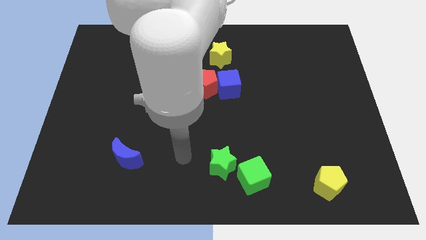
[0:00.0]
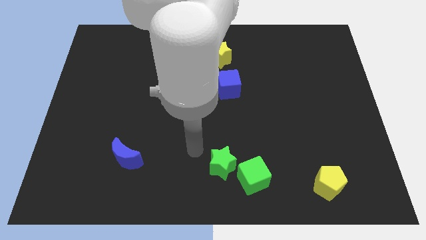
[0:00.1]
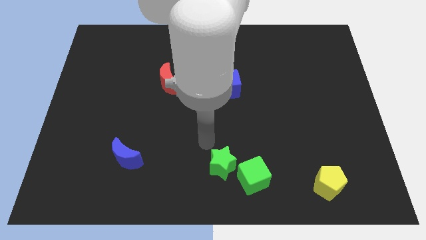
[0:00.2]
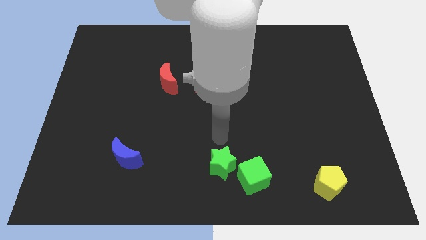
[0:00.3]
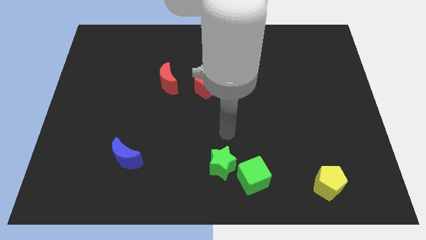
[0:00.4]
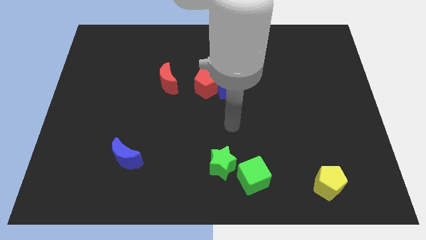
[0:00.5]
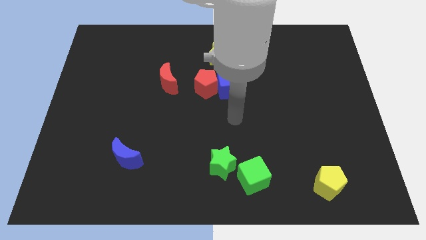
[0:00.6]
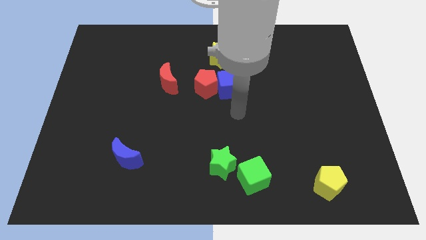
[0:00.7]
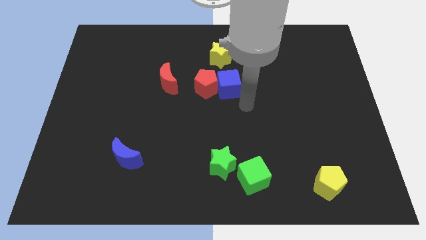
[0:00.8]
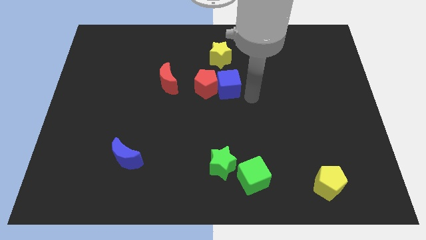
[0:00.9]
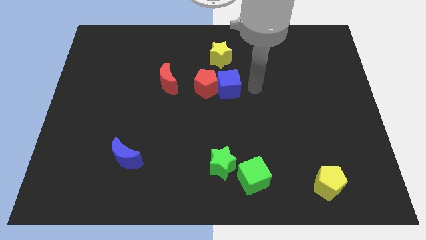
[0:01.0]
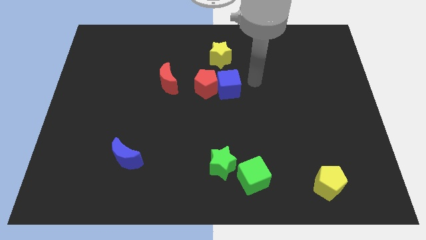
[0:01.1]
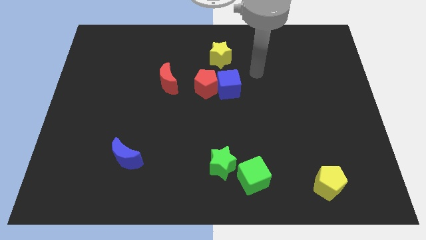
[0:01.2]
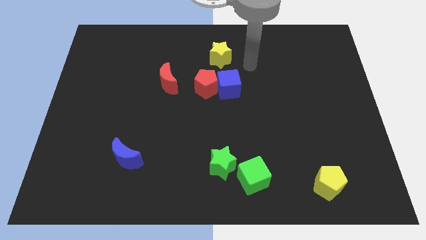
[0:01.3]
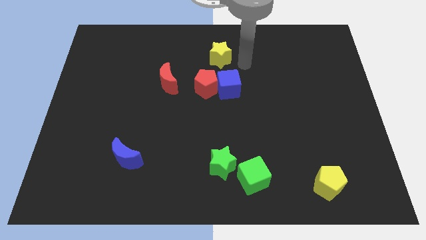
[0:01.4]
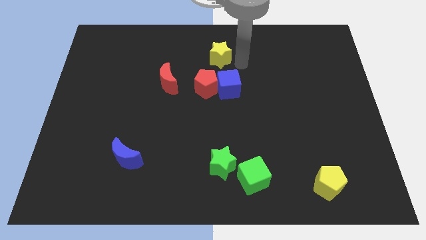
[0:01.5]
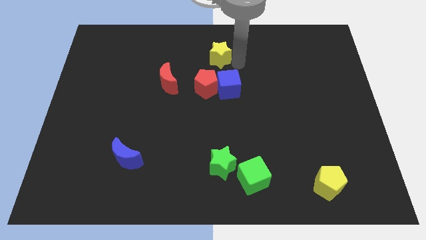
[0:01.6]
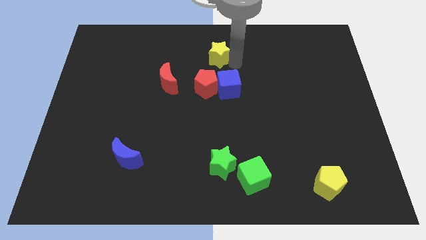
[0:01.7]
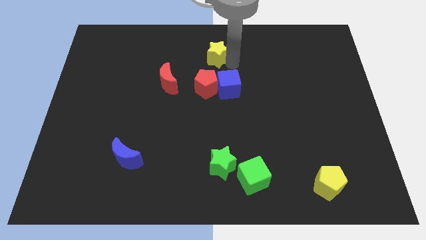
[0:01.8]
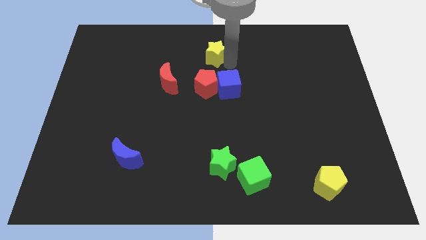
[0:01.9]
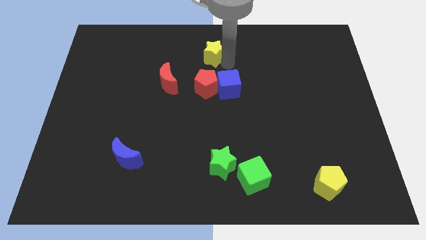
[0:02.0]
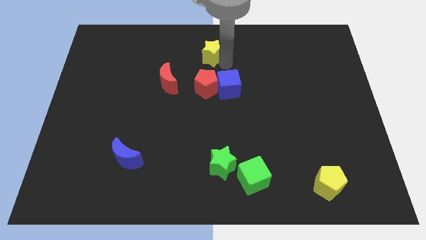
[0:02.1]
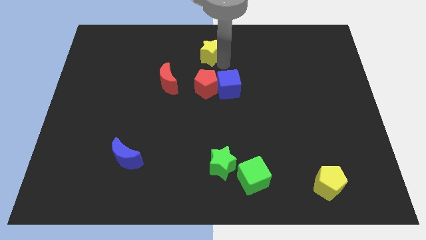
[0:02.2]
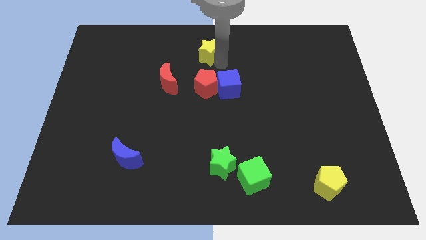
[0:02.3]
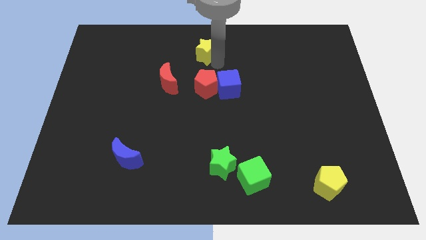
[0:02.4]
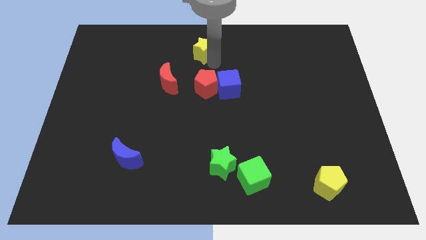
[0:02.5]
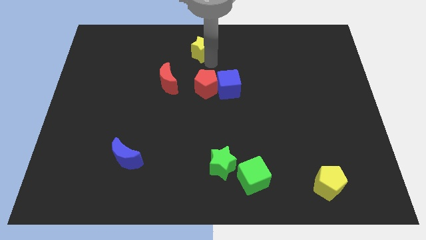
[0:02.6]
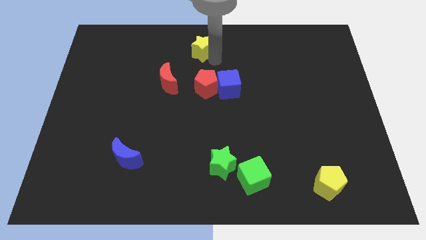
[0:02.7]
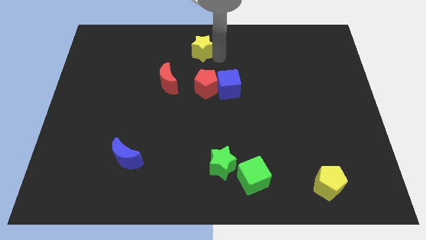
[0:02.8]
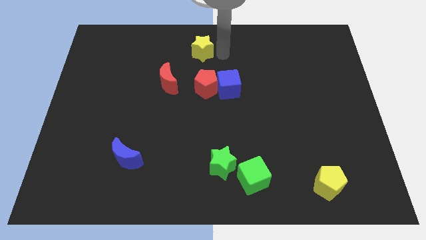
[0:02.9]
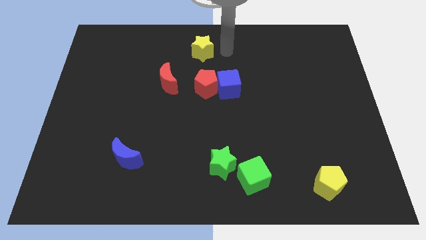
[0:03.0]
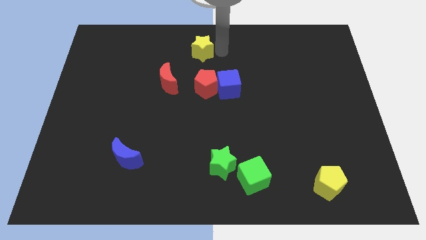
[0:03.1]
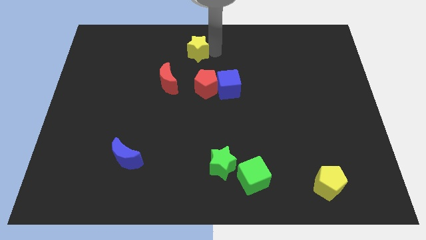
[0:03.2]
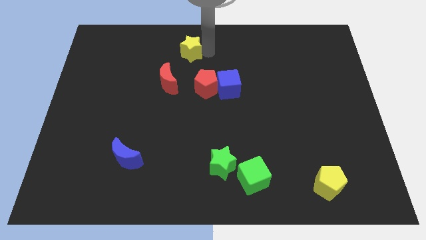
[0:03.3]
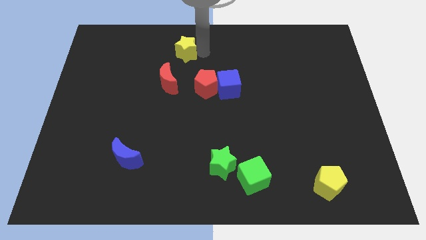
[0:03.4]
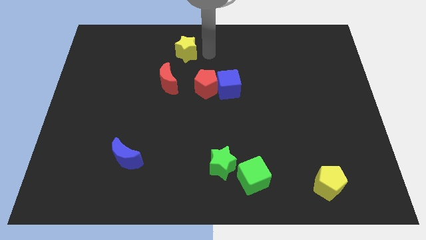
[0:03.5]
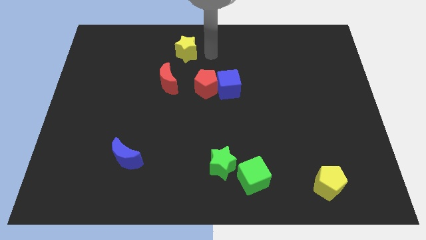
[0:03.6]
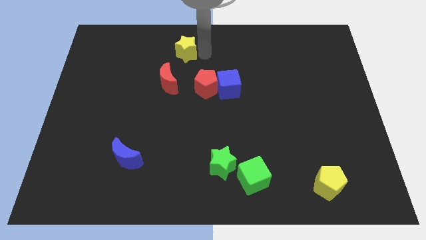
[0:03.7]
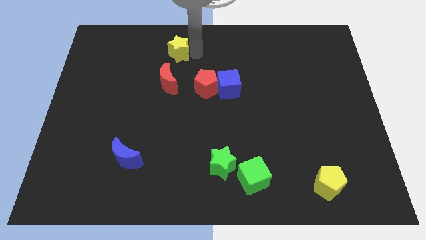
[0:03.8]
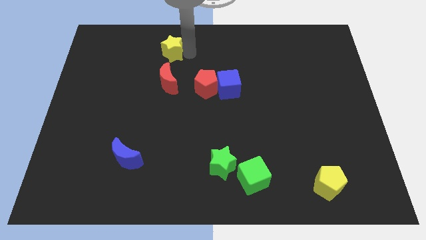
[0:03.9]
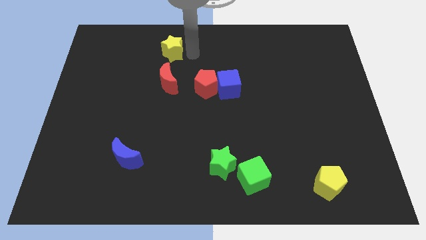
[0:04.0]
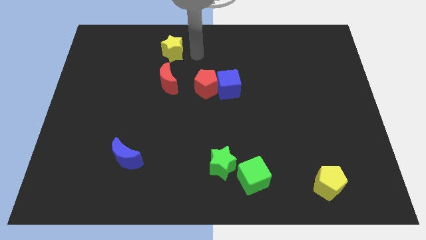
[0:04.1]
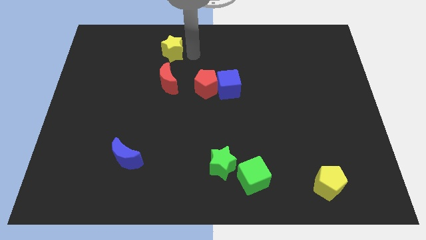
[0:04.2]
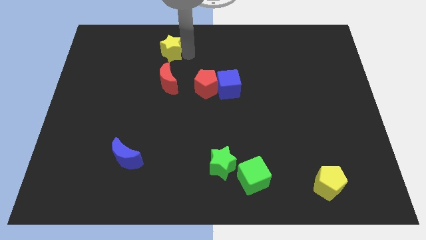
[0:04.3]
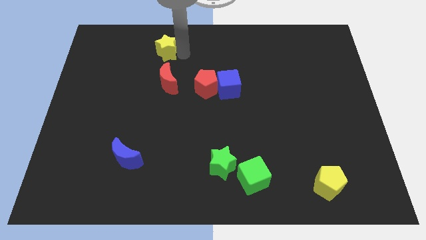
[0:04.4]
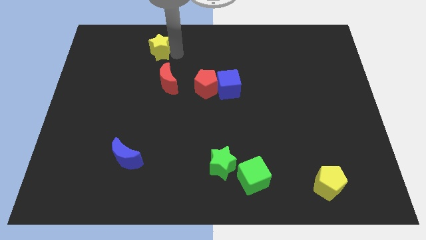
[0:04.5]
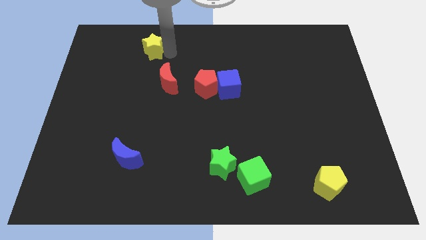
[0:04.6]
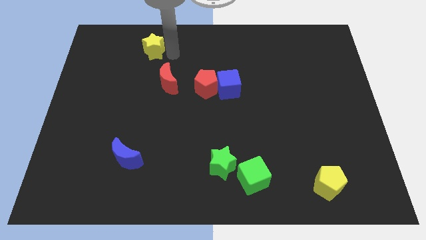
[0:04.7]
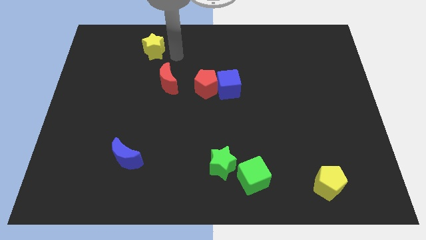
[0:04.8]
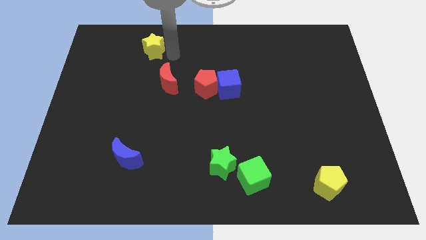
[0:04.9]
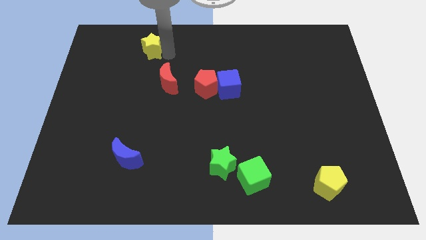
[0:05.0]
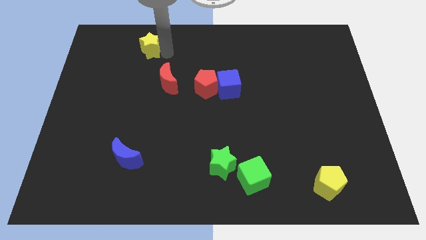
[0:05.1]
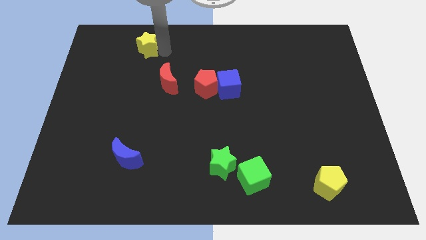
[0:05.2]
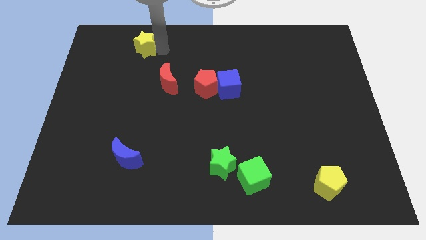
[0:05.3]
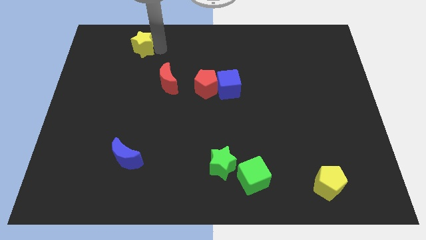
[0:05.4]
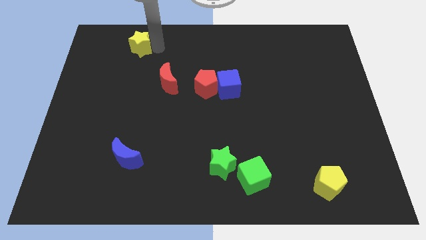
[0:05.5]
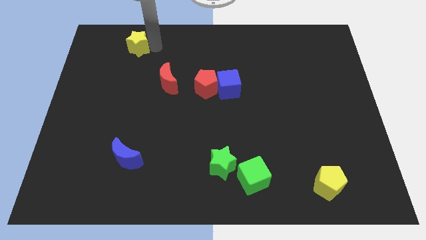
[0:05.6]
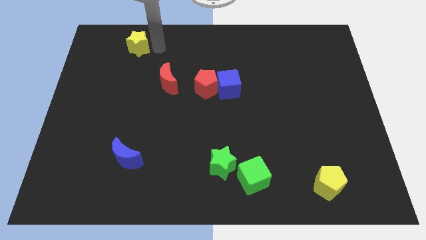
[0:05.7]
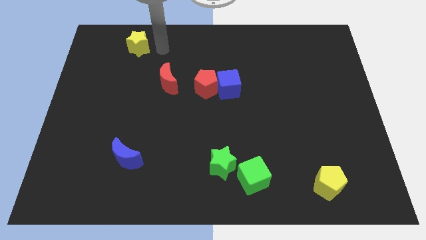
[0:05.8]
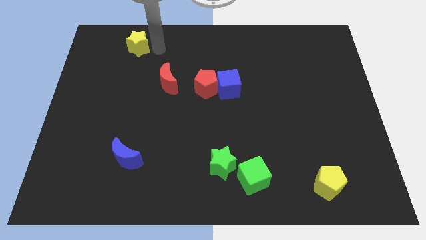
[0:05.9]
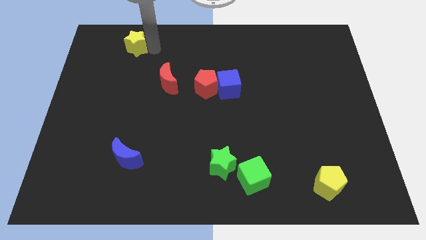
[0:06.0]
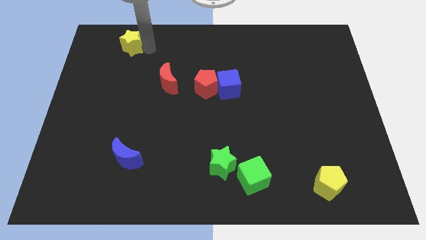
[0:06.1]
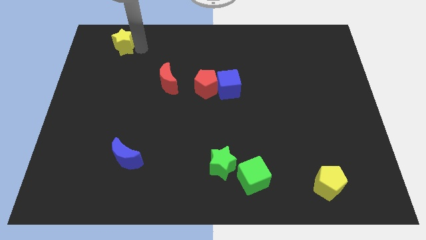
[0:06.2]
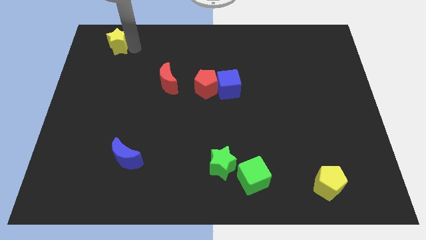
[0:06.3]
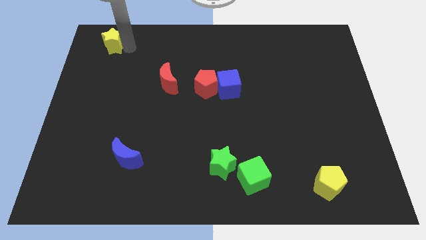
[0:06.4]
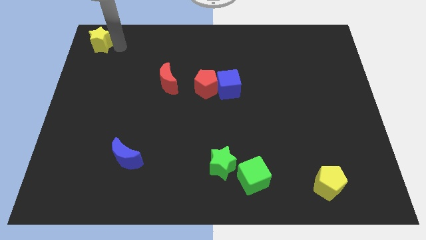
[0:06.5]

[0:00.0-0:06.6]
put the yellow star to the top left of the board
